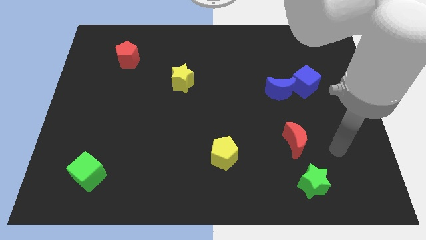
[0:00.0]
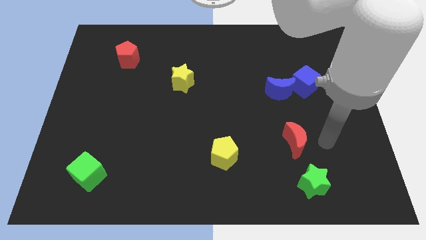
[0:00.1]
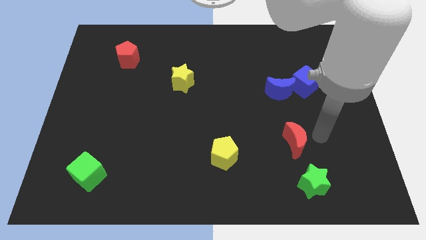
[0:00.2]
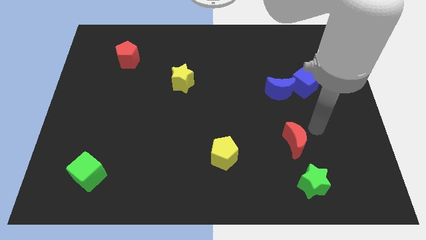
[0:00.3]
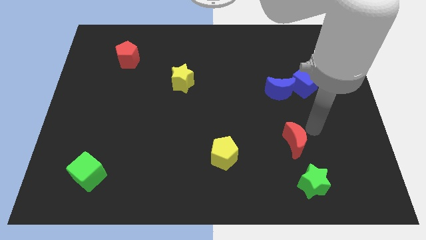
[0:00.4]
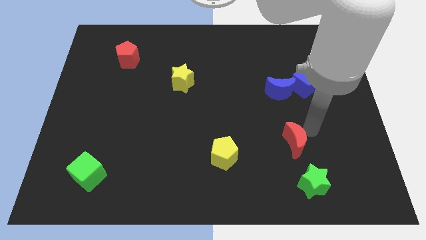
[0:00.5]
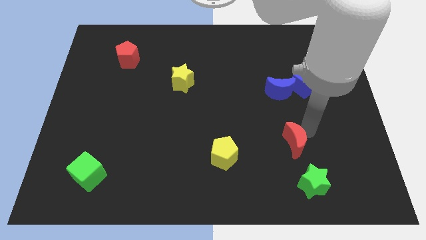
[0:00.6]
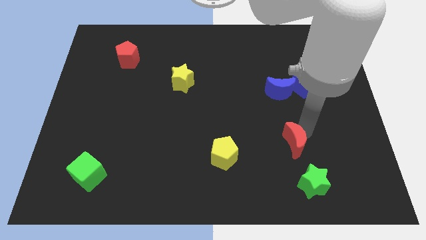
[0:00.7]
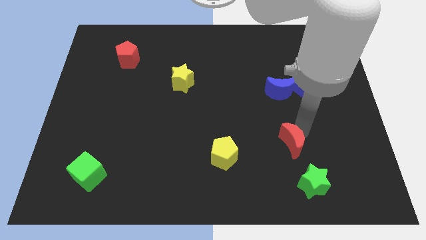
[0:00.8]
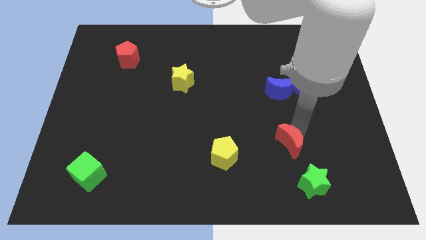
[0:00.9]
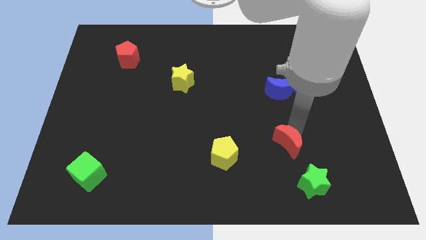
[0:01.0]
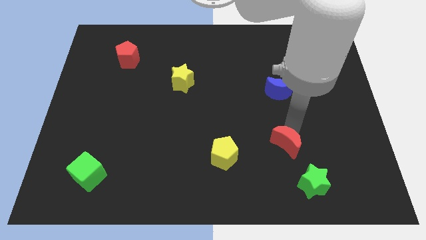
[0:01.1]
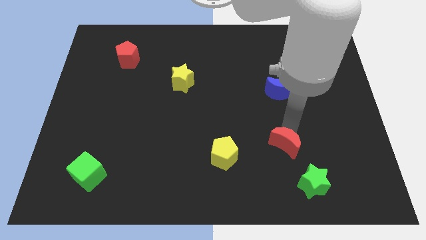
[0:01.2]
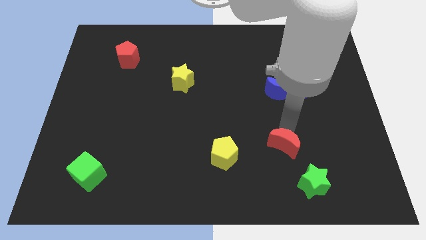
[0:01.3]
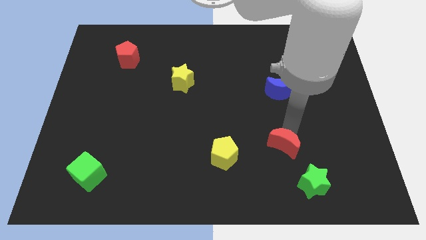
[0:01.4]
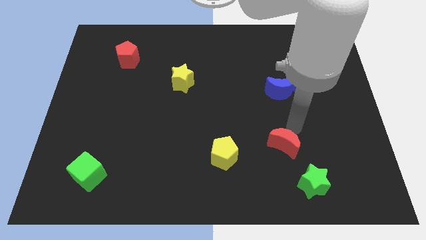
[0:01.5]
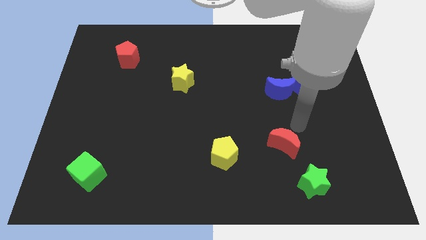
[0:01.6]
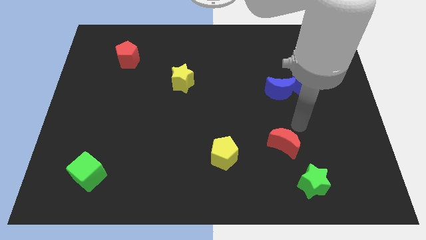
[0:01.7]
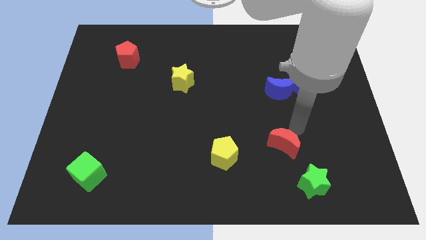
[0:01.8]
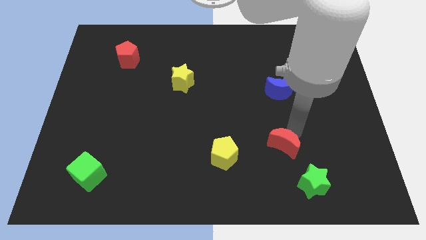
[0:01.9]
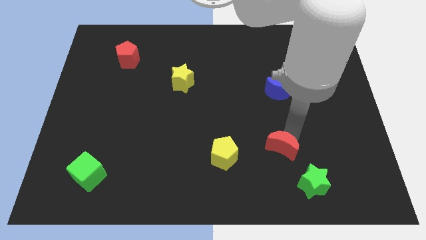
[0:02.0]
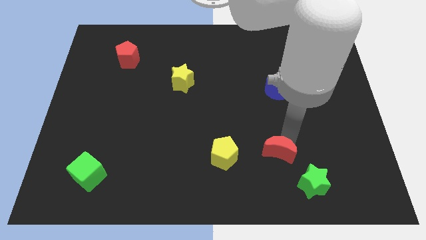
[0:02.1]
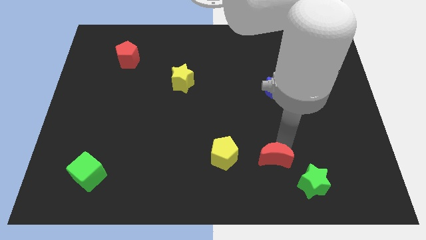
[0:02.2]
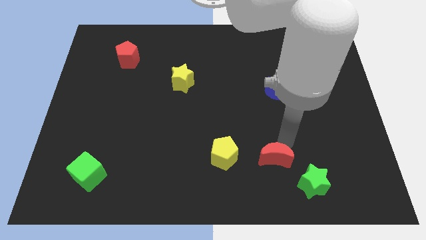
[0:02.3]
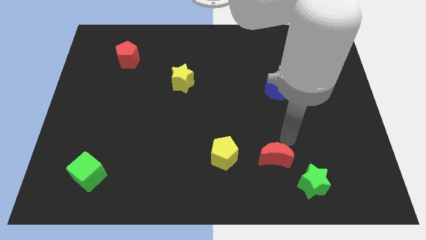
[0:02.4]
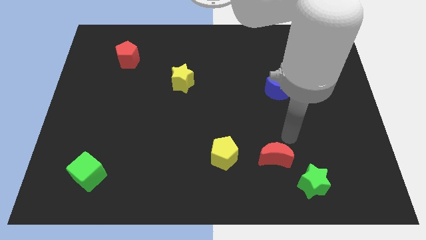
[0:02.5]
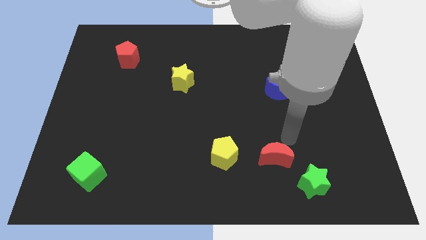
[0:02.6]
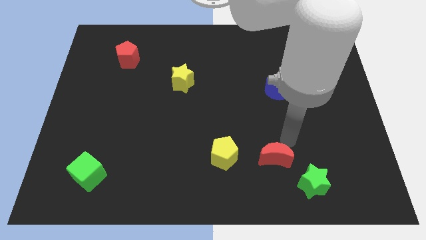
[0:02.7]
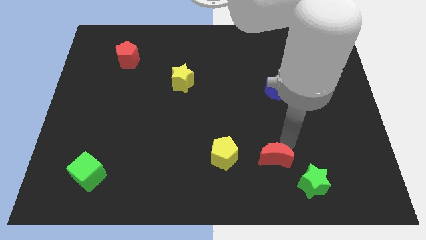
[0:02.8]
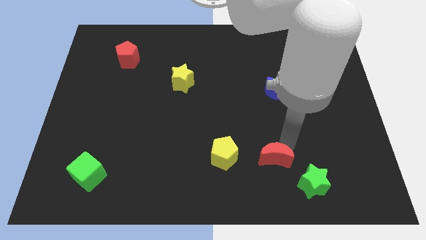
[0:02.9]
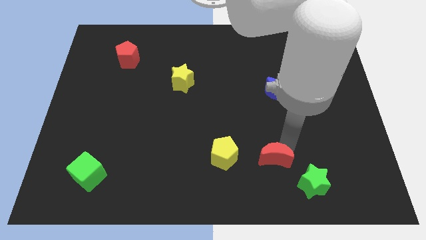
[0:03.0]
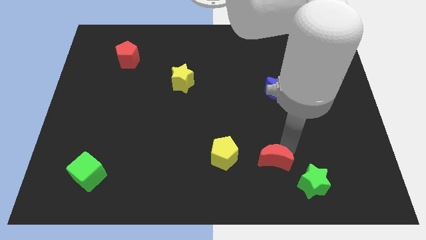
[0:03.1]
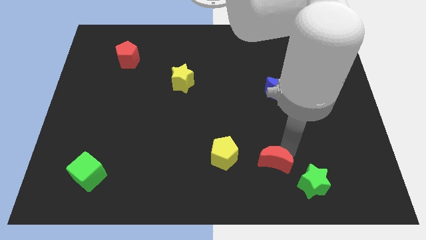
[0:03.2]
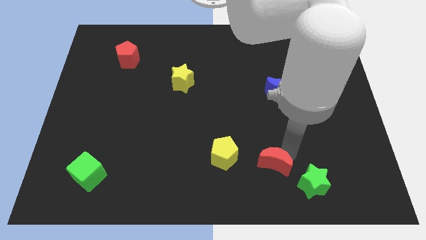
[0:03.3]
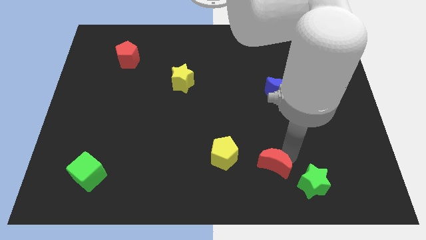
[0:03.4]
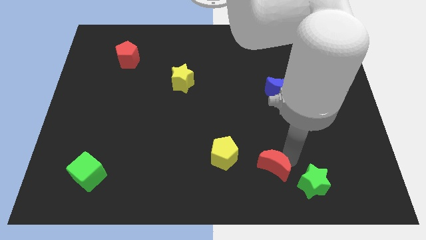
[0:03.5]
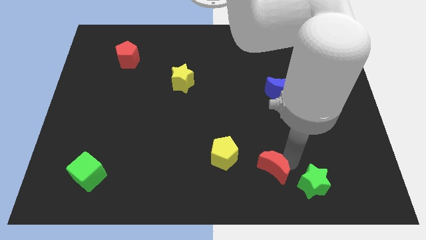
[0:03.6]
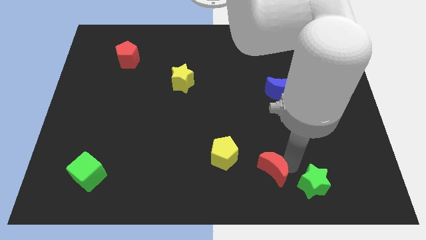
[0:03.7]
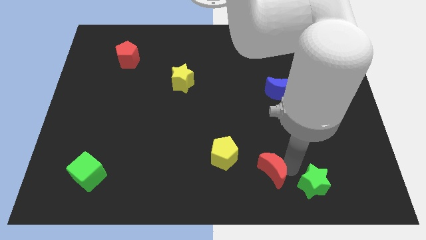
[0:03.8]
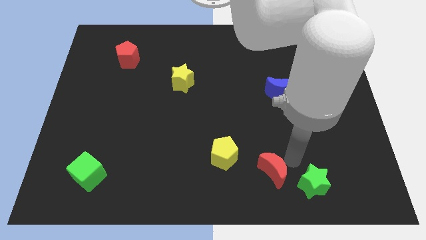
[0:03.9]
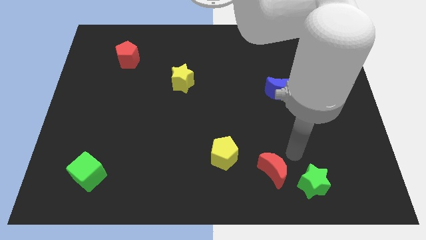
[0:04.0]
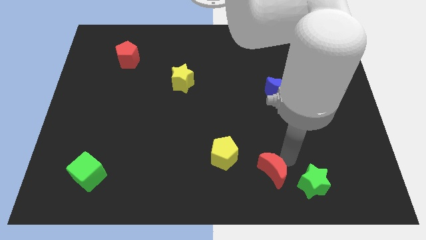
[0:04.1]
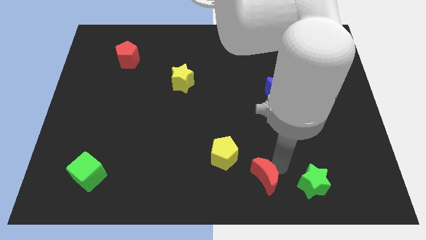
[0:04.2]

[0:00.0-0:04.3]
push the red moon to the bottom side

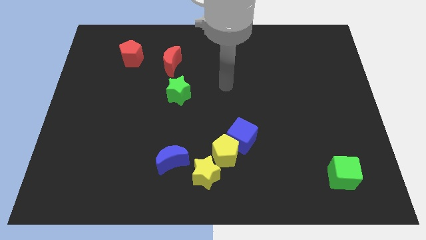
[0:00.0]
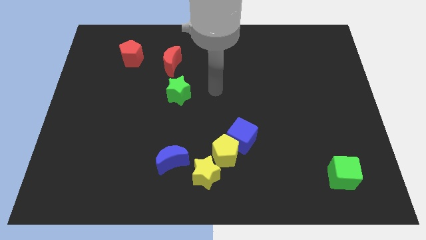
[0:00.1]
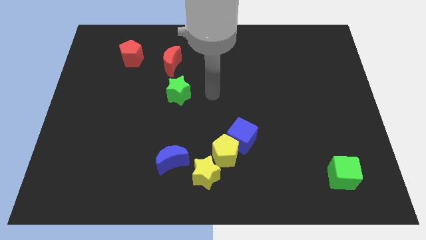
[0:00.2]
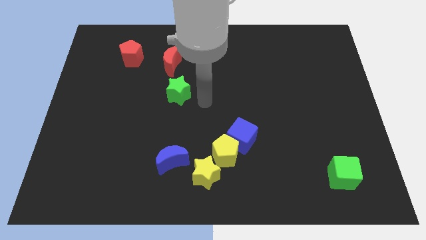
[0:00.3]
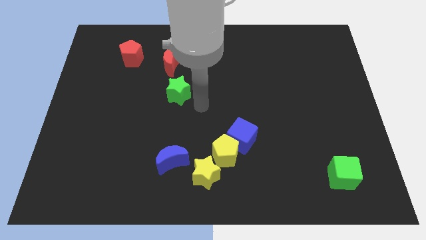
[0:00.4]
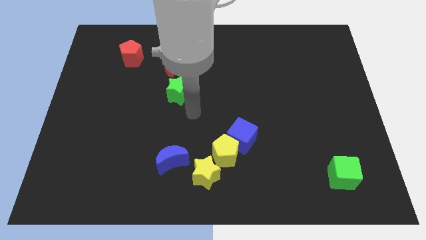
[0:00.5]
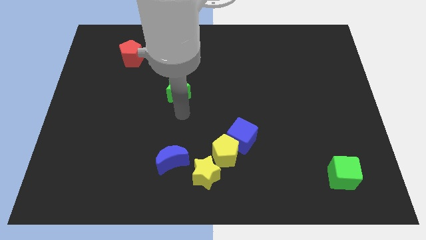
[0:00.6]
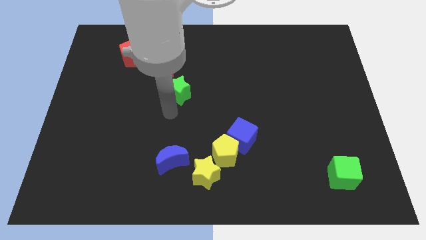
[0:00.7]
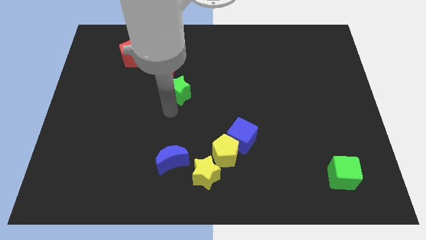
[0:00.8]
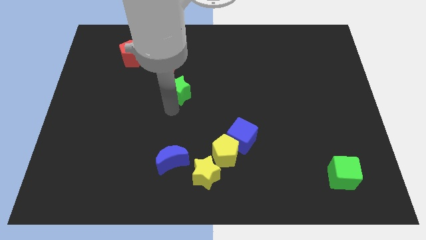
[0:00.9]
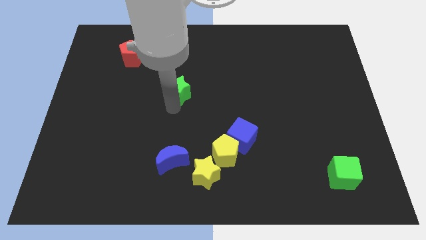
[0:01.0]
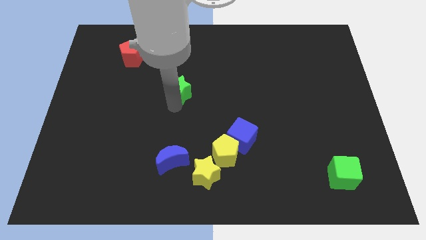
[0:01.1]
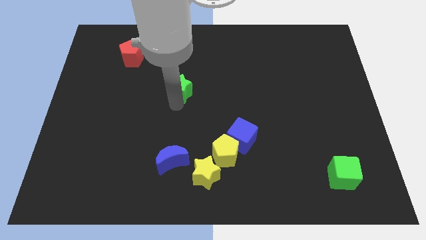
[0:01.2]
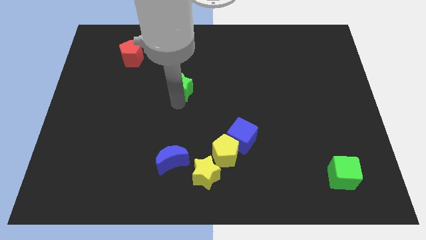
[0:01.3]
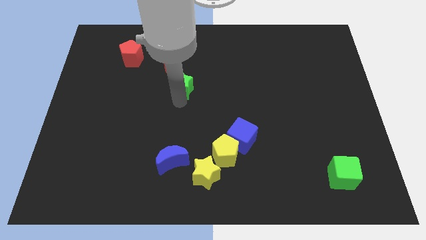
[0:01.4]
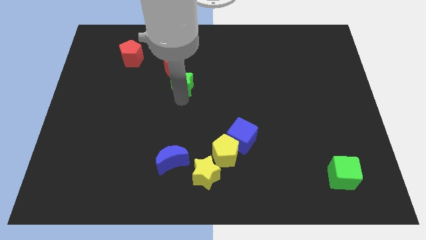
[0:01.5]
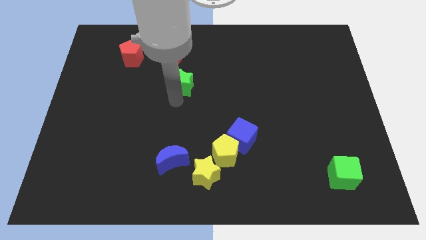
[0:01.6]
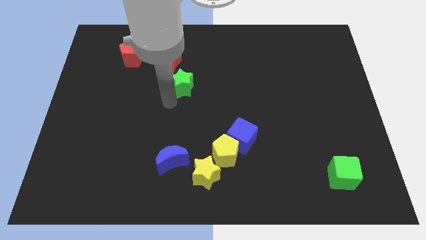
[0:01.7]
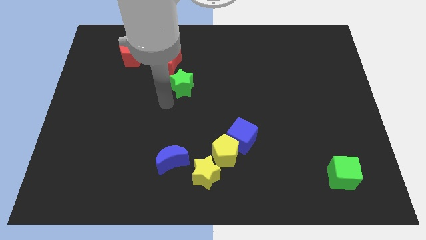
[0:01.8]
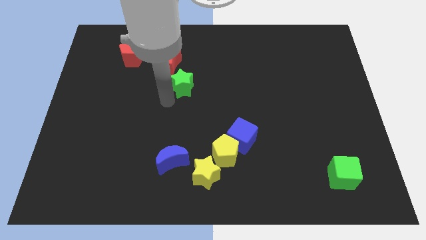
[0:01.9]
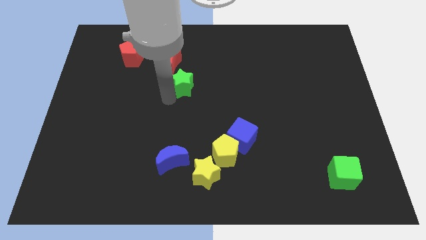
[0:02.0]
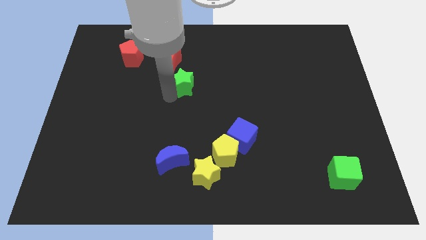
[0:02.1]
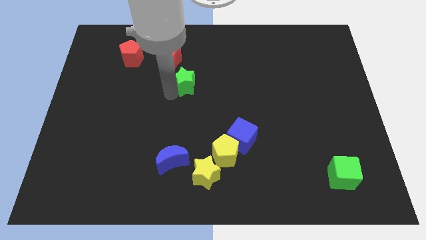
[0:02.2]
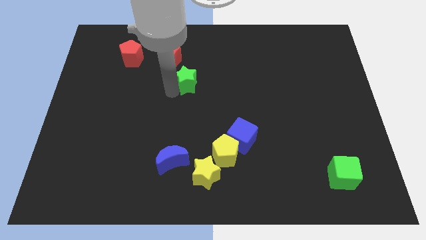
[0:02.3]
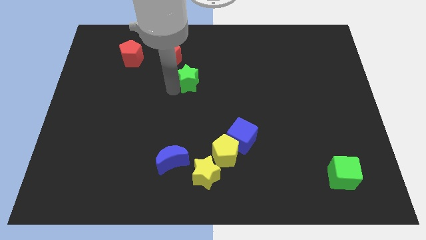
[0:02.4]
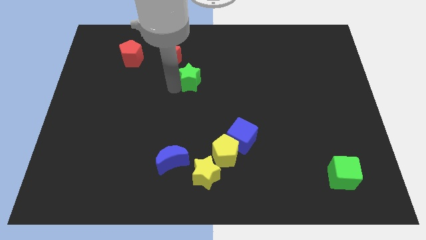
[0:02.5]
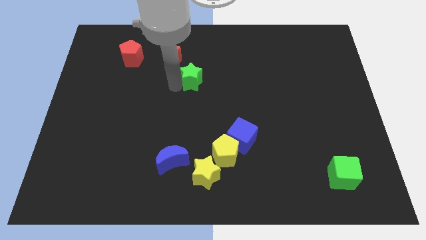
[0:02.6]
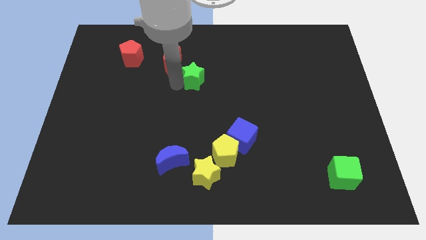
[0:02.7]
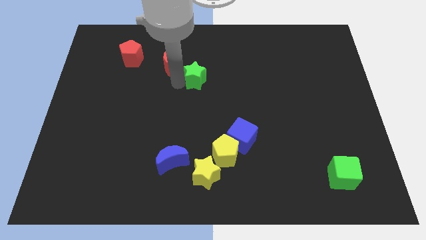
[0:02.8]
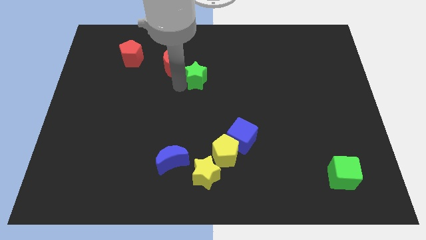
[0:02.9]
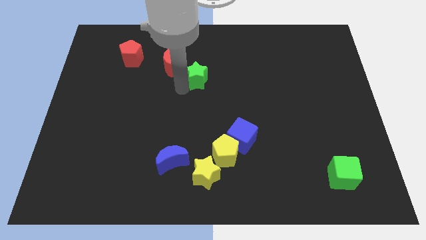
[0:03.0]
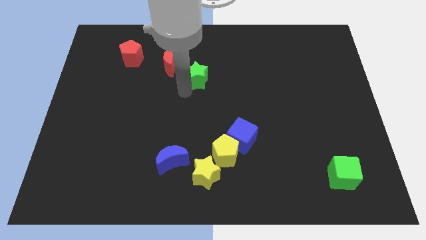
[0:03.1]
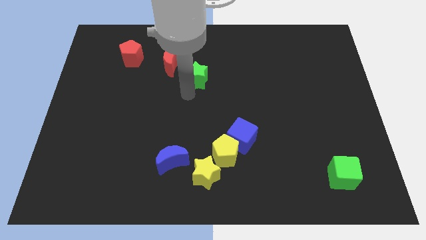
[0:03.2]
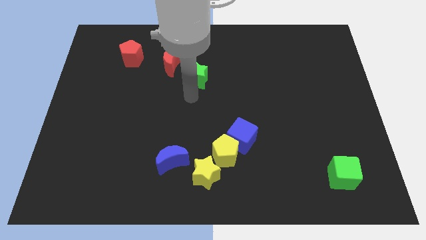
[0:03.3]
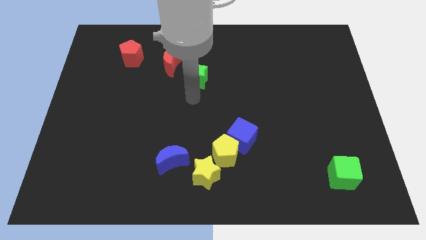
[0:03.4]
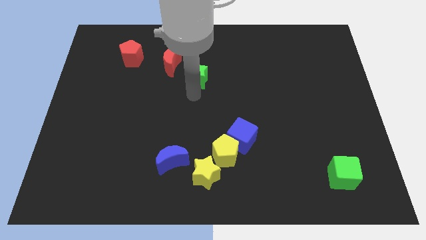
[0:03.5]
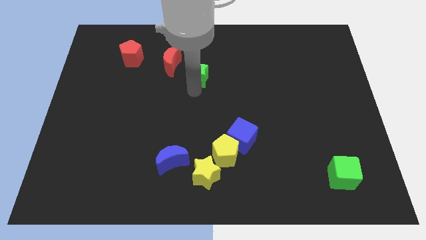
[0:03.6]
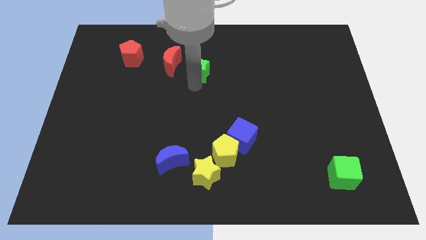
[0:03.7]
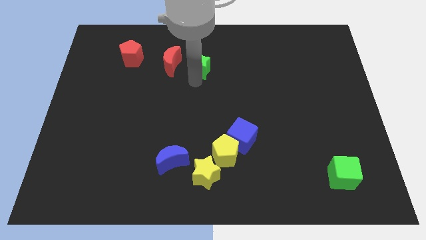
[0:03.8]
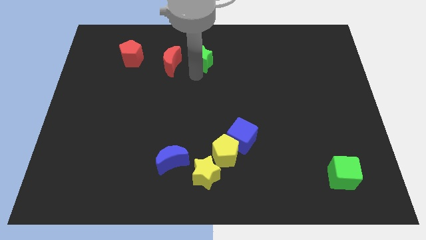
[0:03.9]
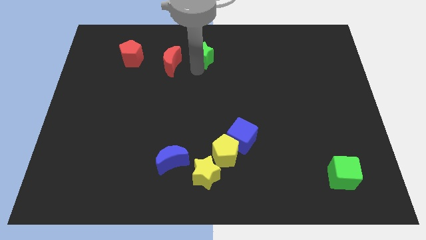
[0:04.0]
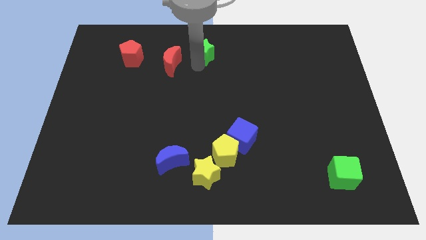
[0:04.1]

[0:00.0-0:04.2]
put the green star to the top
